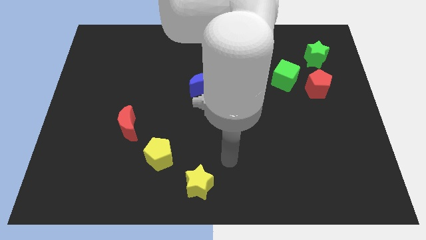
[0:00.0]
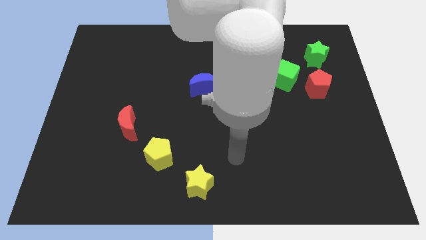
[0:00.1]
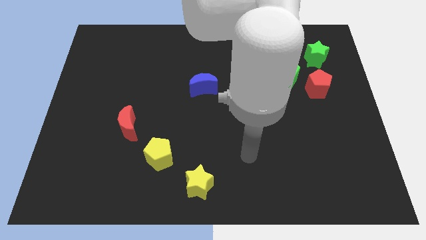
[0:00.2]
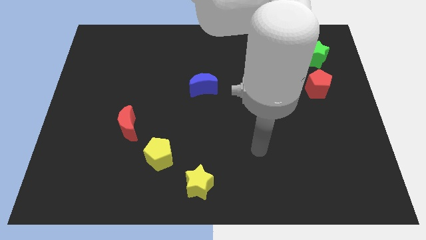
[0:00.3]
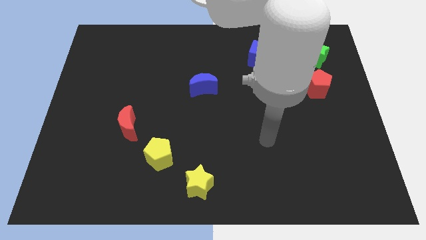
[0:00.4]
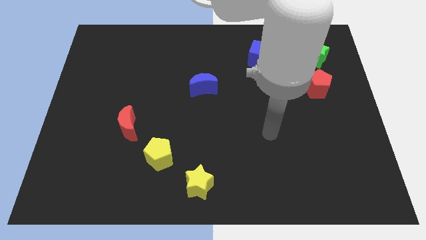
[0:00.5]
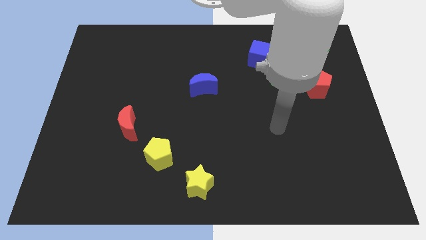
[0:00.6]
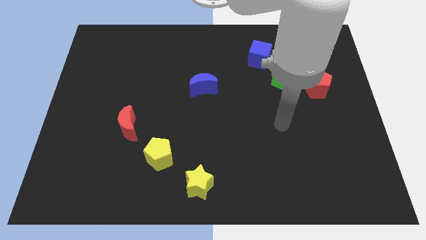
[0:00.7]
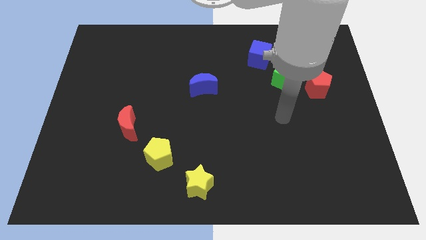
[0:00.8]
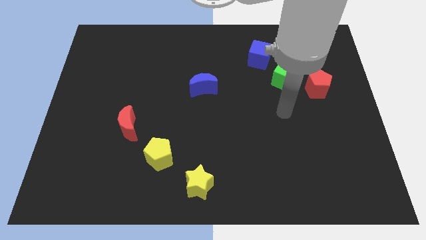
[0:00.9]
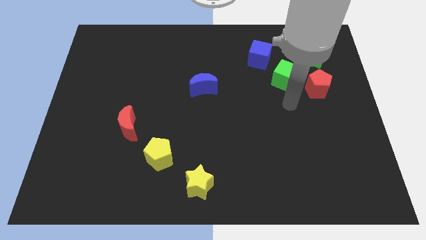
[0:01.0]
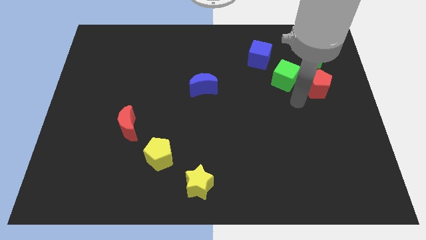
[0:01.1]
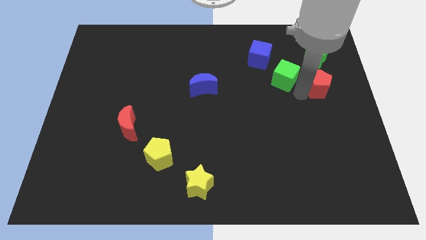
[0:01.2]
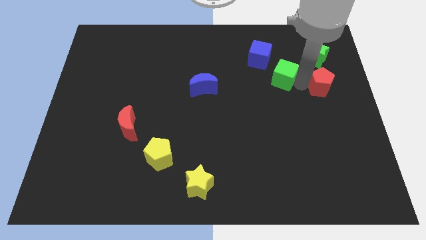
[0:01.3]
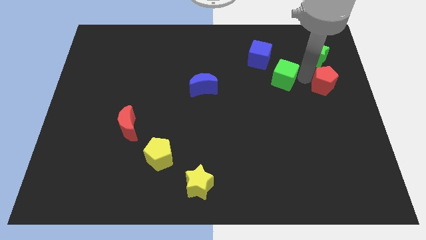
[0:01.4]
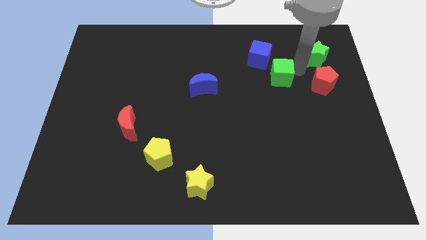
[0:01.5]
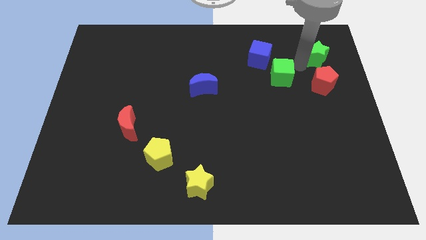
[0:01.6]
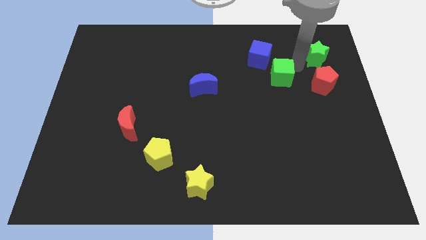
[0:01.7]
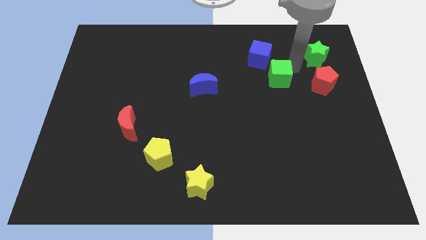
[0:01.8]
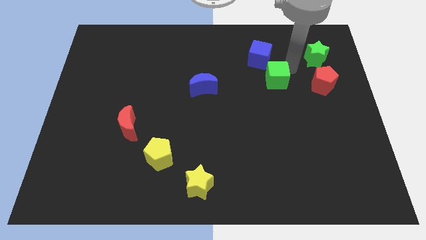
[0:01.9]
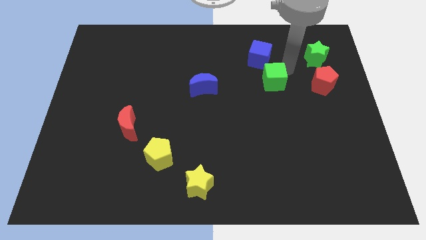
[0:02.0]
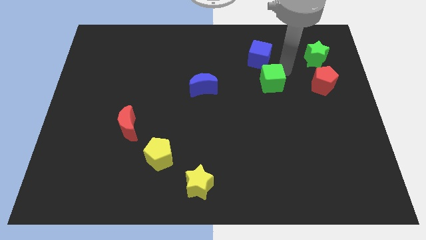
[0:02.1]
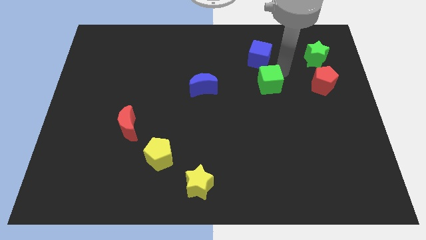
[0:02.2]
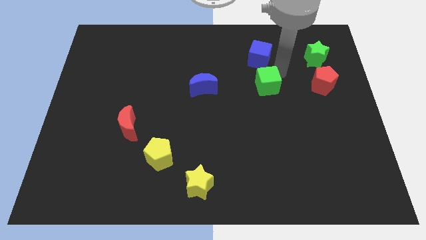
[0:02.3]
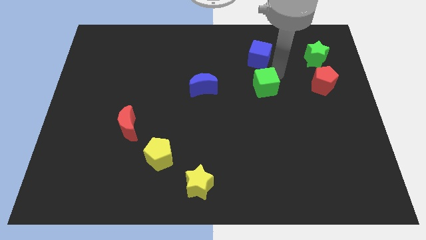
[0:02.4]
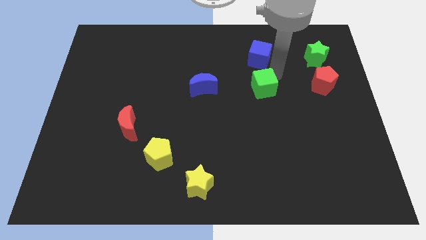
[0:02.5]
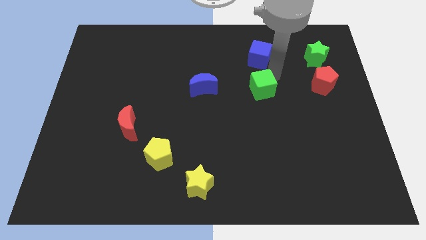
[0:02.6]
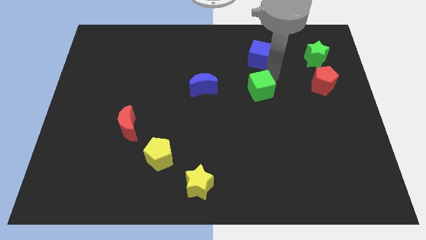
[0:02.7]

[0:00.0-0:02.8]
pull the green cube apart from the red pentagon and blue cube

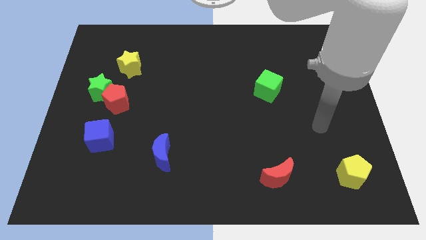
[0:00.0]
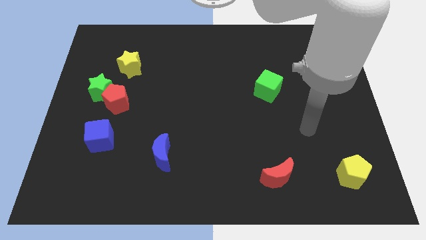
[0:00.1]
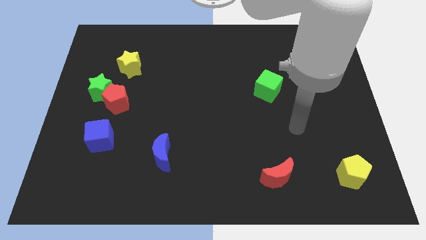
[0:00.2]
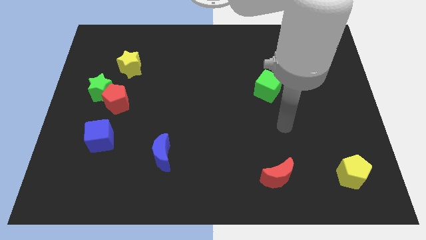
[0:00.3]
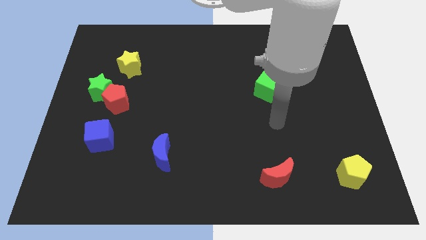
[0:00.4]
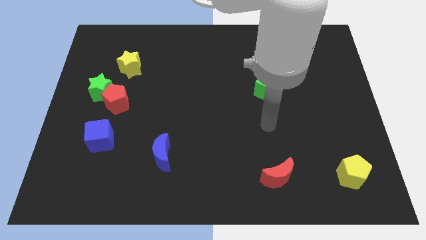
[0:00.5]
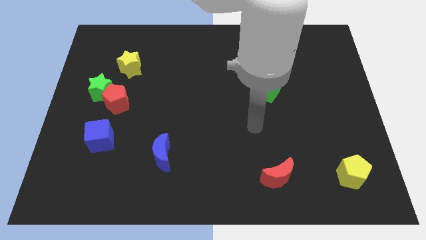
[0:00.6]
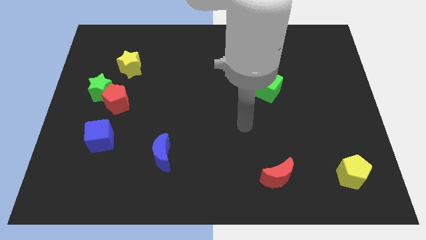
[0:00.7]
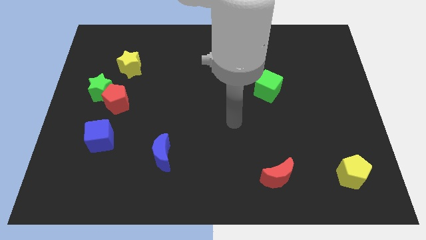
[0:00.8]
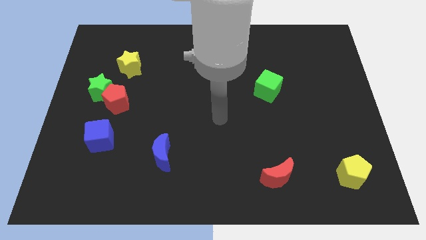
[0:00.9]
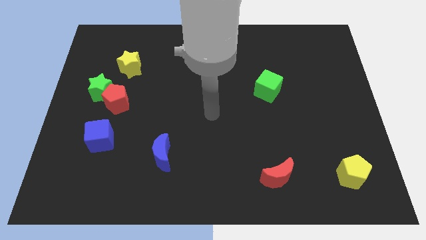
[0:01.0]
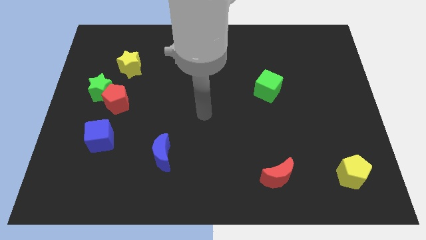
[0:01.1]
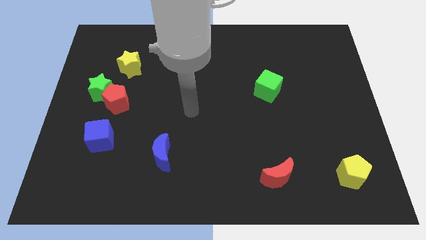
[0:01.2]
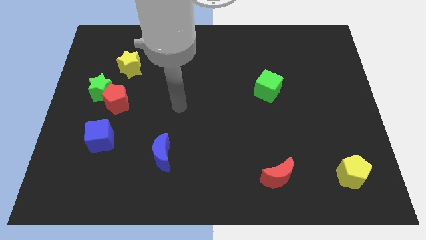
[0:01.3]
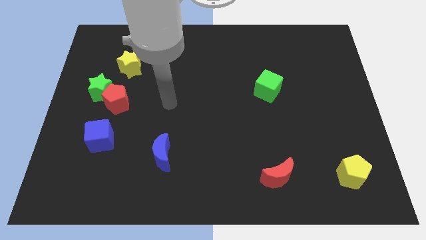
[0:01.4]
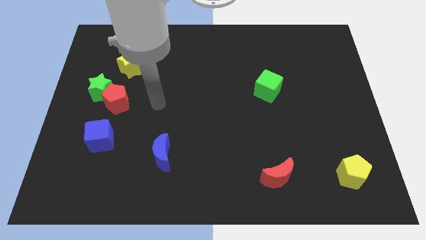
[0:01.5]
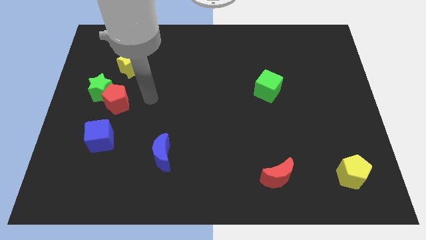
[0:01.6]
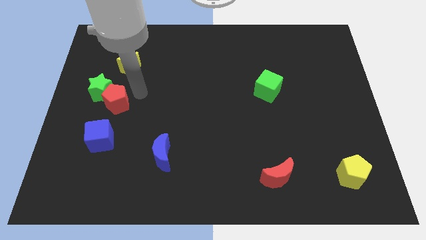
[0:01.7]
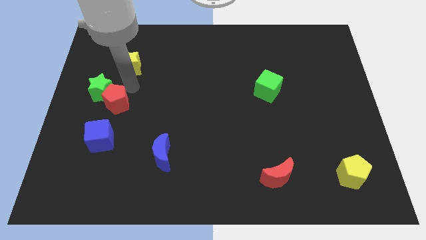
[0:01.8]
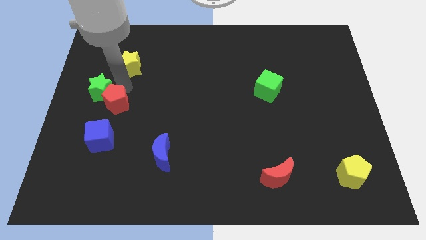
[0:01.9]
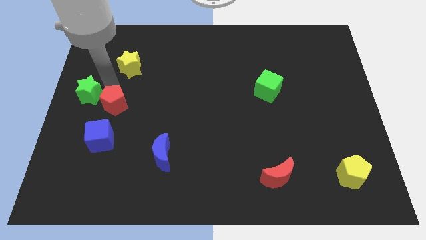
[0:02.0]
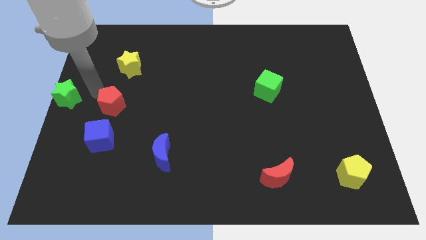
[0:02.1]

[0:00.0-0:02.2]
separate the red pentagon from the green star

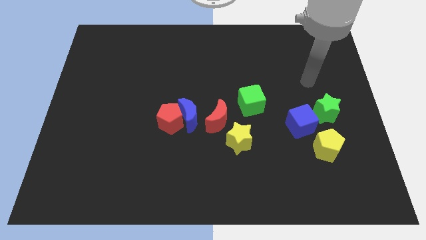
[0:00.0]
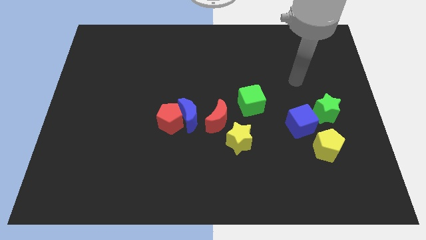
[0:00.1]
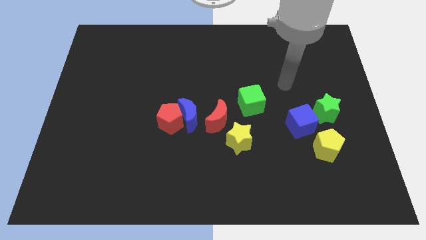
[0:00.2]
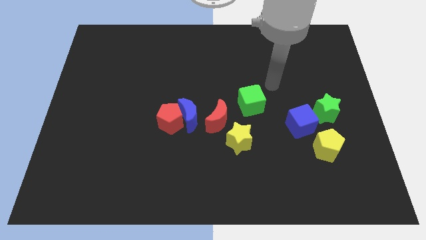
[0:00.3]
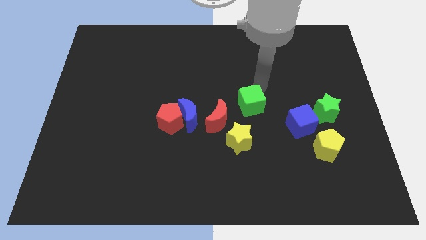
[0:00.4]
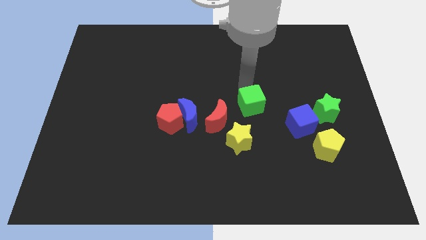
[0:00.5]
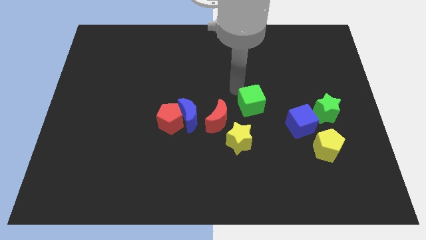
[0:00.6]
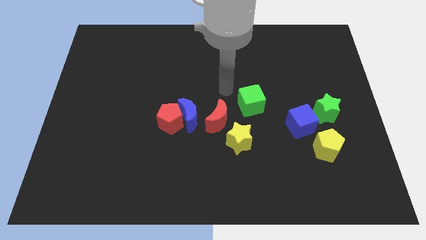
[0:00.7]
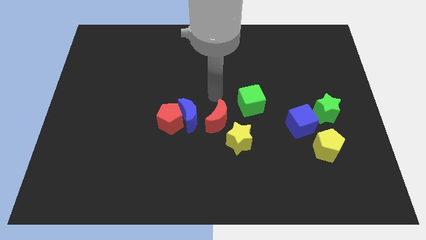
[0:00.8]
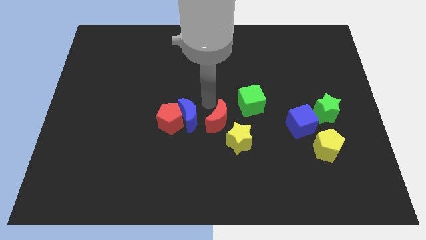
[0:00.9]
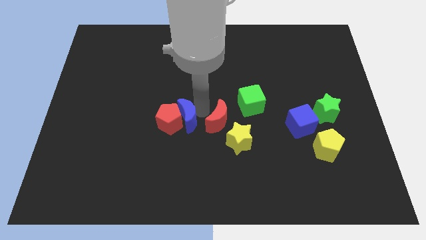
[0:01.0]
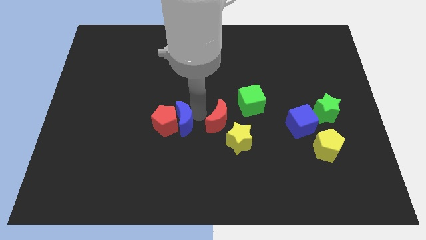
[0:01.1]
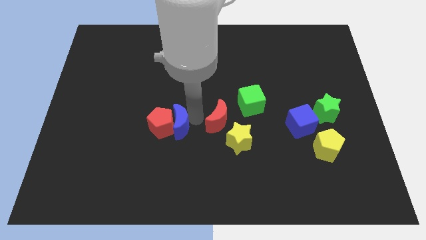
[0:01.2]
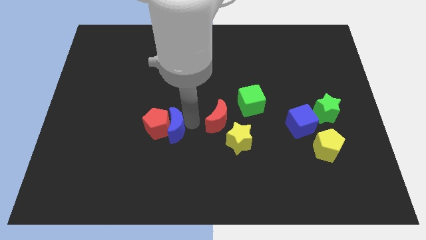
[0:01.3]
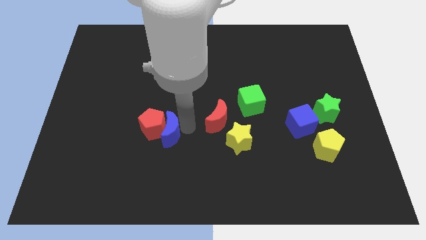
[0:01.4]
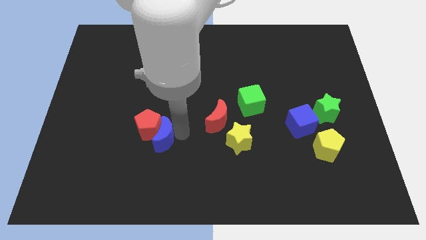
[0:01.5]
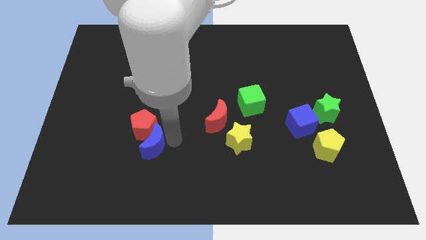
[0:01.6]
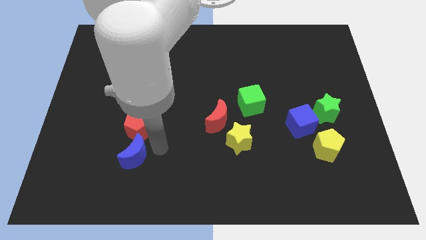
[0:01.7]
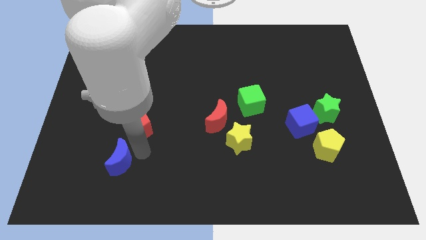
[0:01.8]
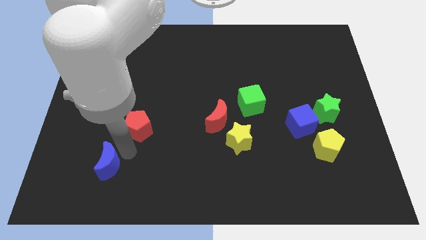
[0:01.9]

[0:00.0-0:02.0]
separate the red pentagon from the blue moon

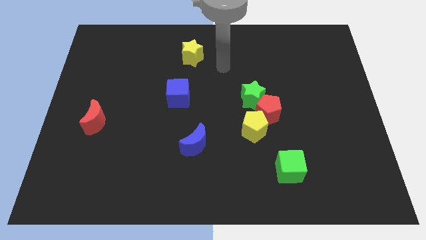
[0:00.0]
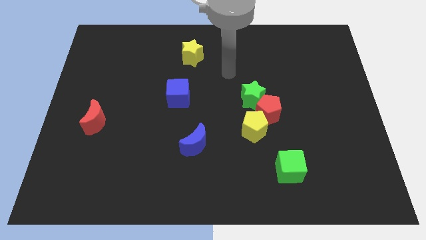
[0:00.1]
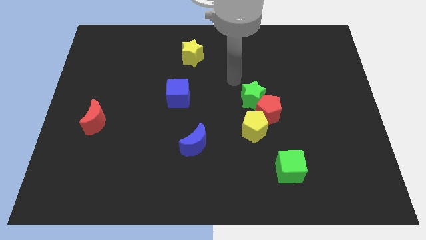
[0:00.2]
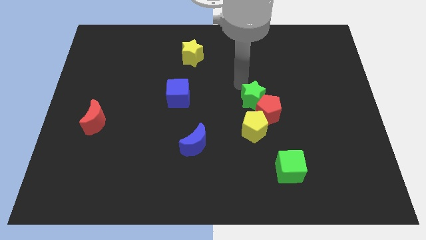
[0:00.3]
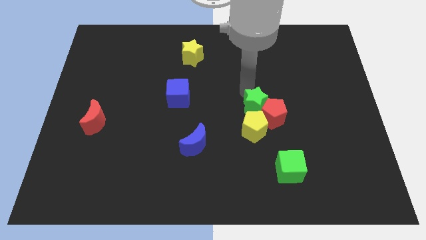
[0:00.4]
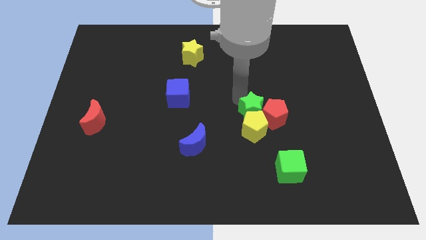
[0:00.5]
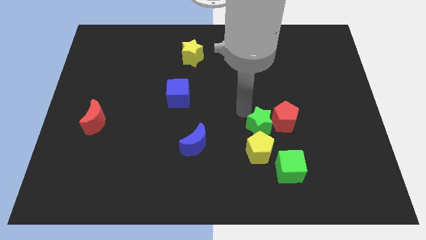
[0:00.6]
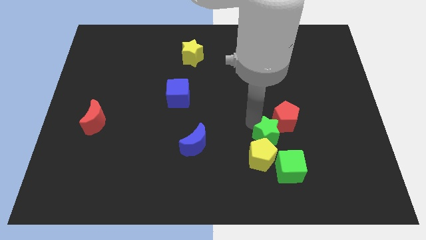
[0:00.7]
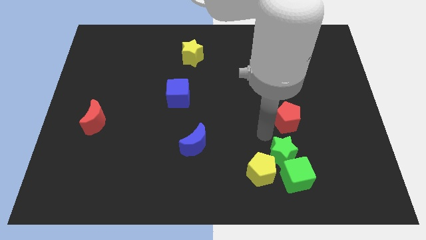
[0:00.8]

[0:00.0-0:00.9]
move the red pentagon away from the green star and yellow pentagon

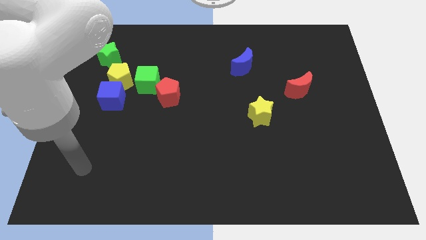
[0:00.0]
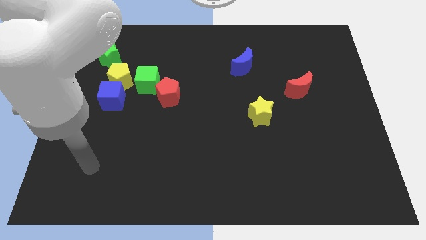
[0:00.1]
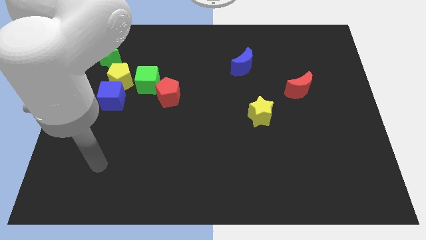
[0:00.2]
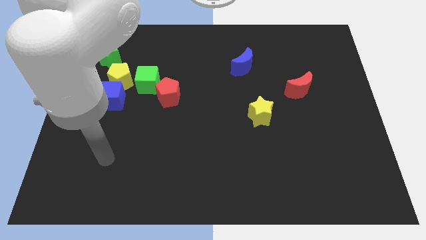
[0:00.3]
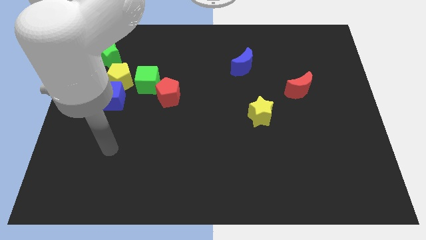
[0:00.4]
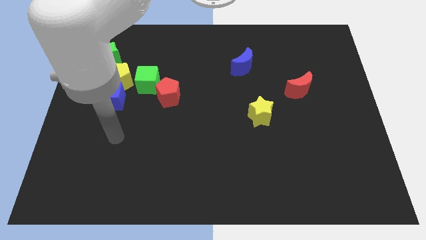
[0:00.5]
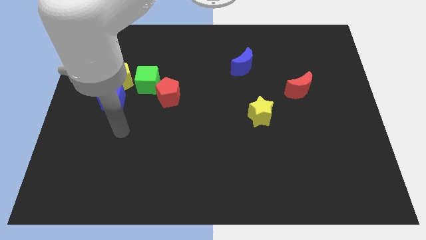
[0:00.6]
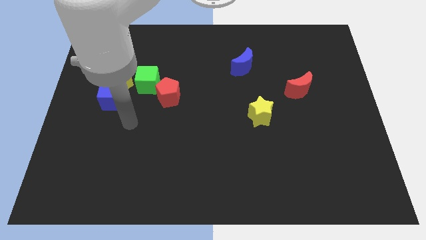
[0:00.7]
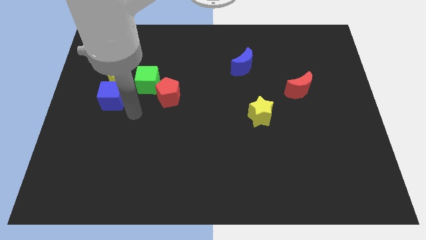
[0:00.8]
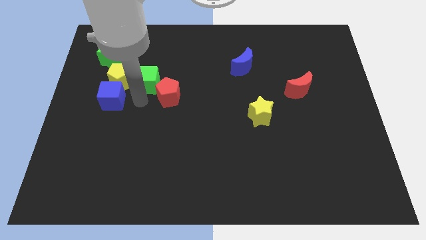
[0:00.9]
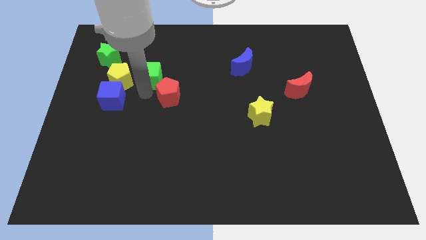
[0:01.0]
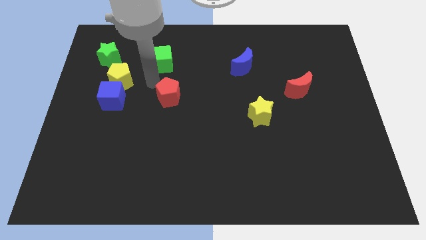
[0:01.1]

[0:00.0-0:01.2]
move the red pentagon away from the green cube

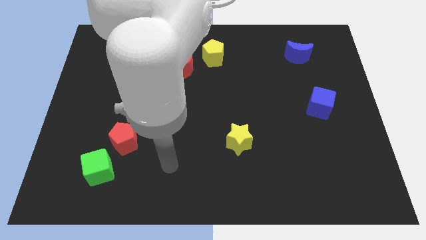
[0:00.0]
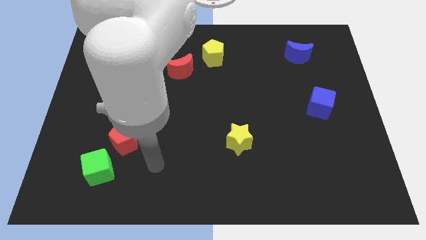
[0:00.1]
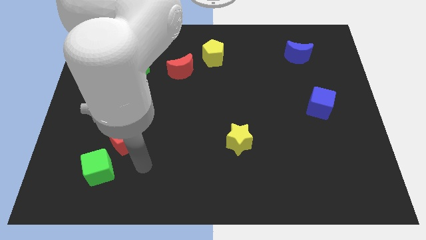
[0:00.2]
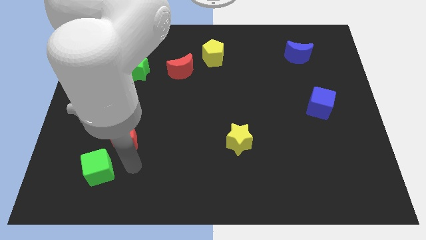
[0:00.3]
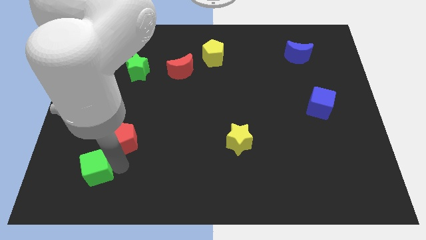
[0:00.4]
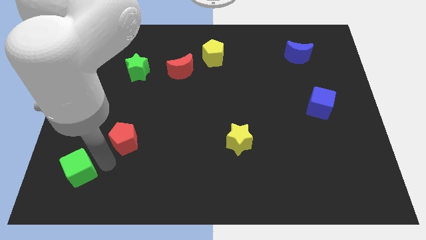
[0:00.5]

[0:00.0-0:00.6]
separate the red pentagon from the green cube
